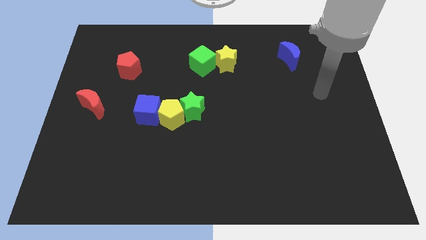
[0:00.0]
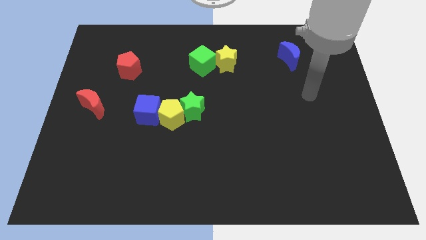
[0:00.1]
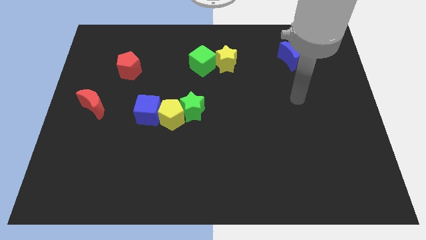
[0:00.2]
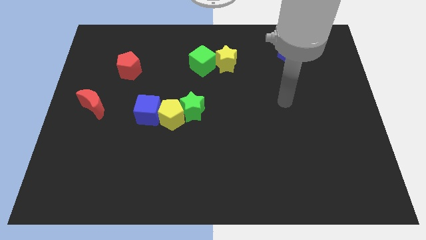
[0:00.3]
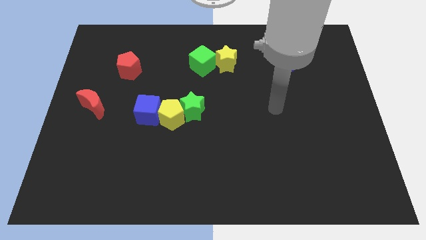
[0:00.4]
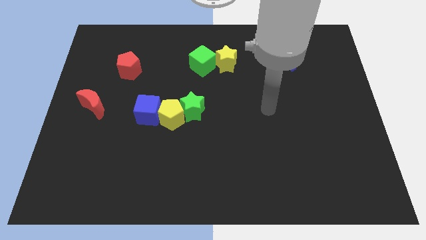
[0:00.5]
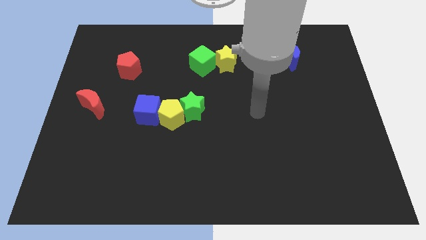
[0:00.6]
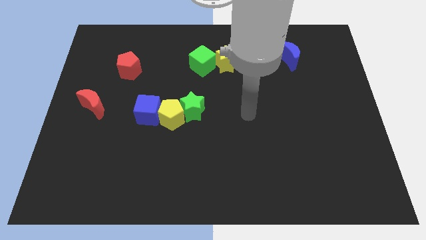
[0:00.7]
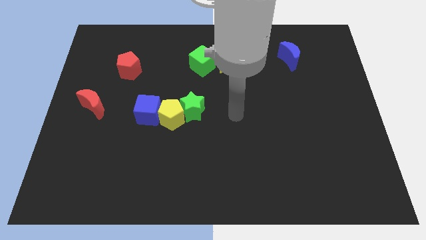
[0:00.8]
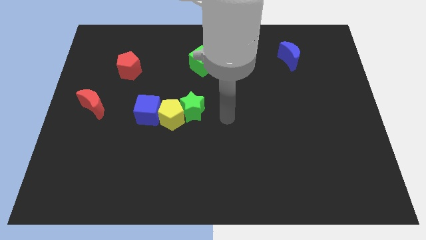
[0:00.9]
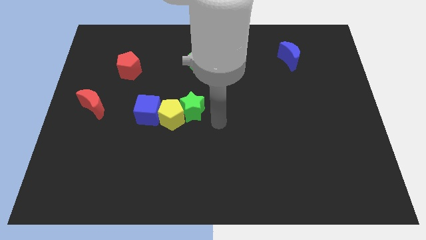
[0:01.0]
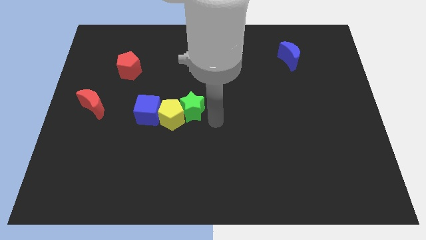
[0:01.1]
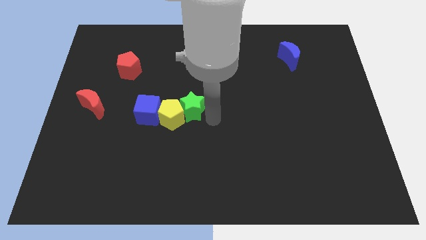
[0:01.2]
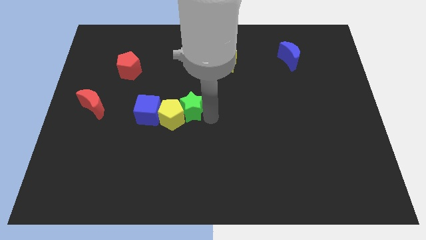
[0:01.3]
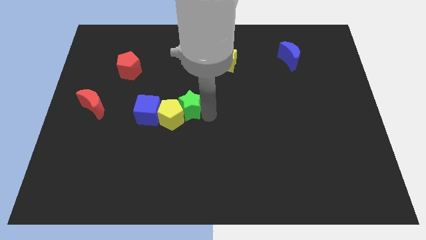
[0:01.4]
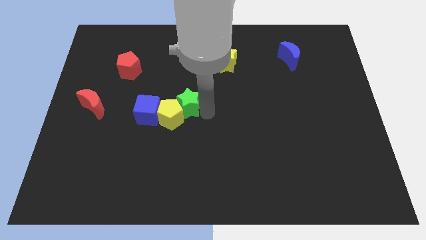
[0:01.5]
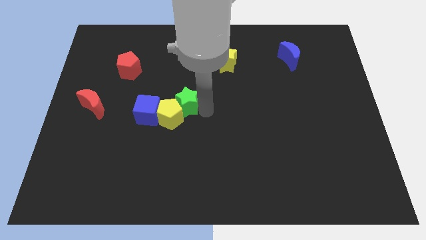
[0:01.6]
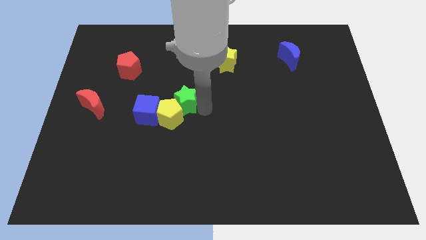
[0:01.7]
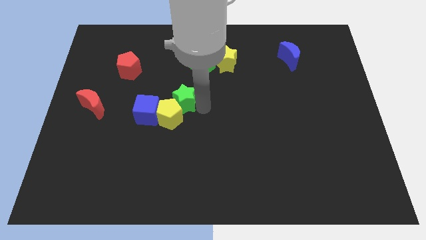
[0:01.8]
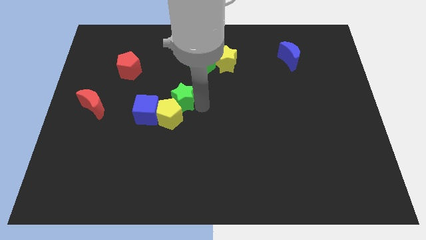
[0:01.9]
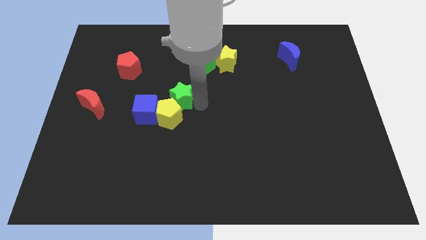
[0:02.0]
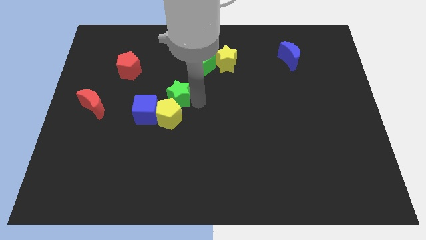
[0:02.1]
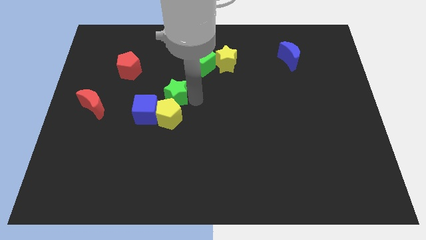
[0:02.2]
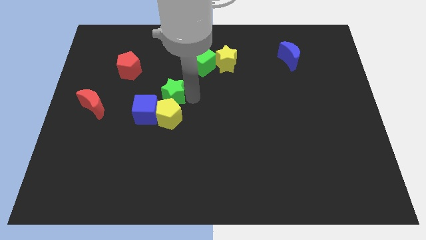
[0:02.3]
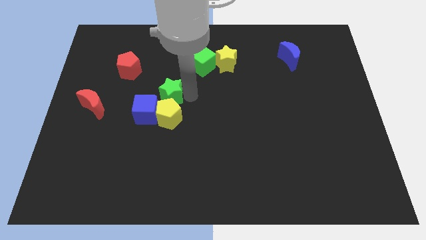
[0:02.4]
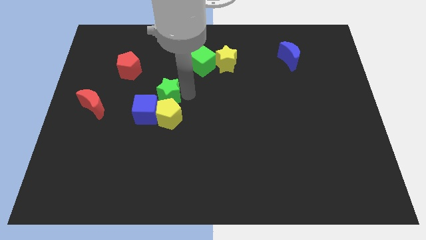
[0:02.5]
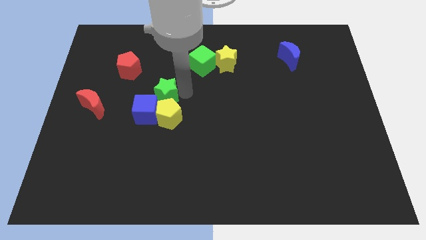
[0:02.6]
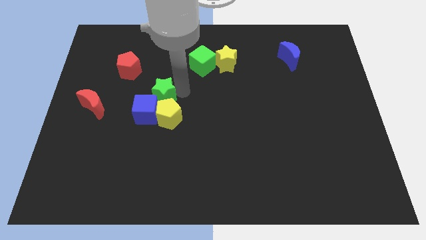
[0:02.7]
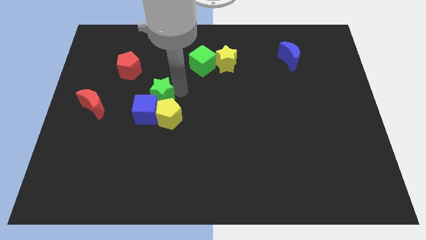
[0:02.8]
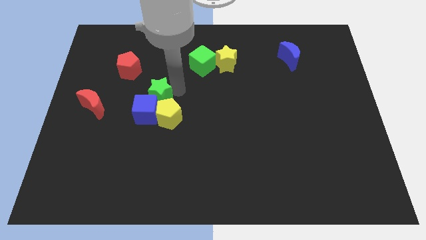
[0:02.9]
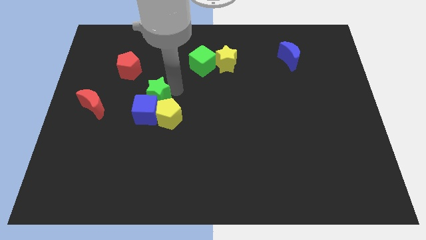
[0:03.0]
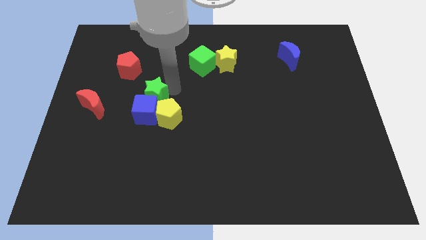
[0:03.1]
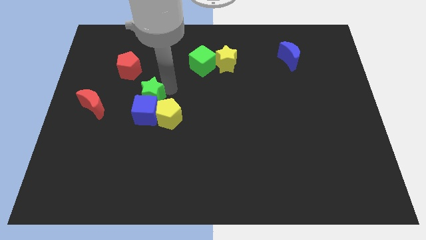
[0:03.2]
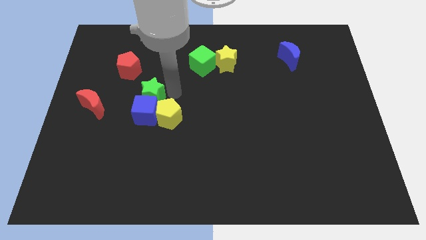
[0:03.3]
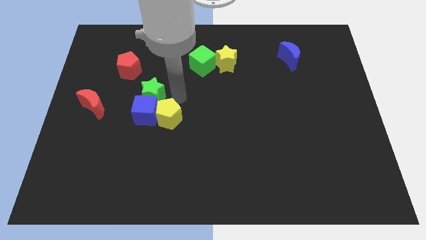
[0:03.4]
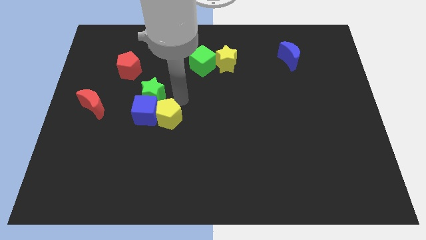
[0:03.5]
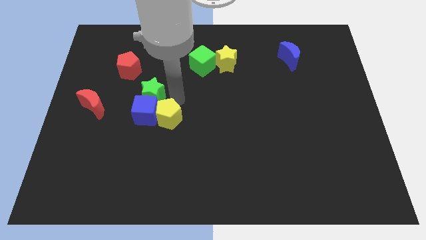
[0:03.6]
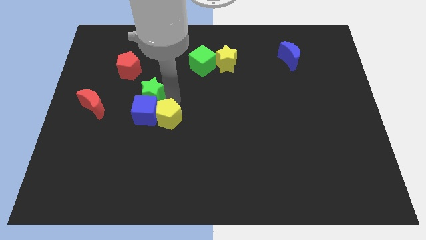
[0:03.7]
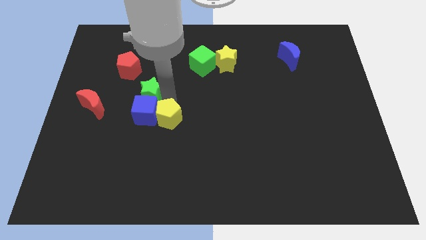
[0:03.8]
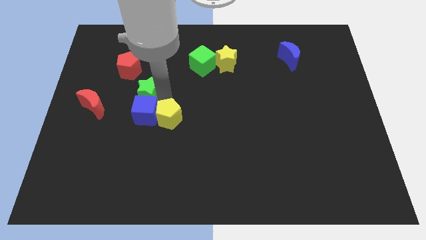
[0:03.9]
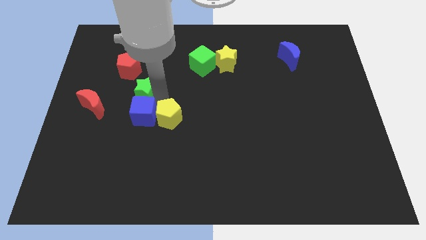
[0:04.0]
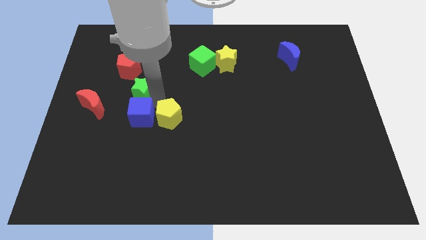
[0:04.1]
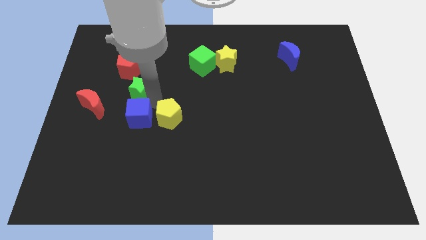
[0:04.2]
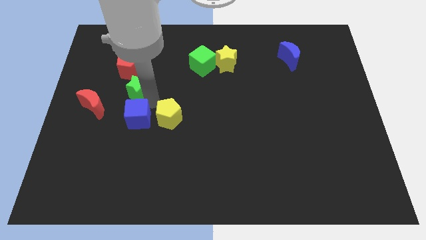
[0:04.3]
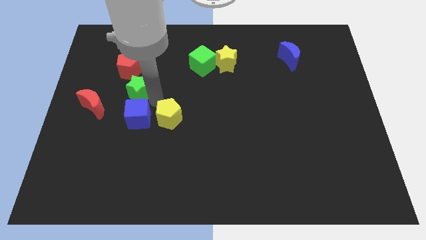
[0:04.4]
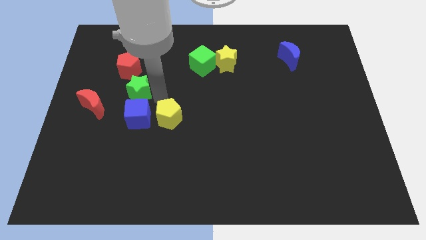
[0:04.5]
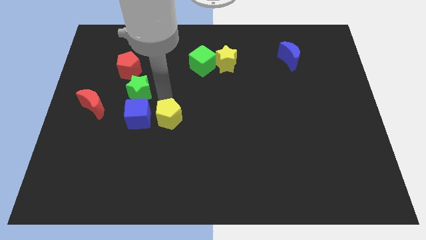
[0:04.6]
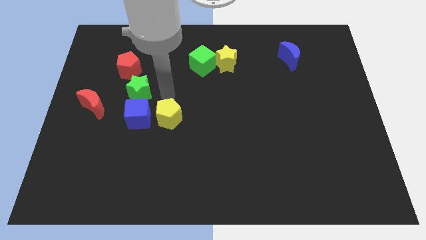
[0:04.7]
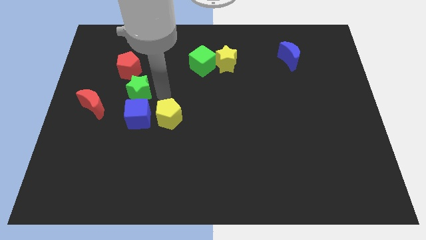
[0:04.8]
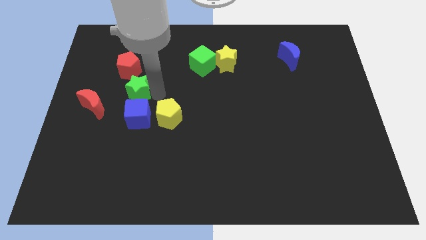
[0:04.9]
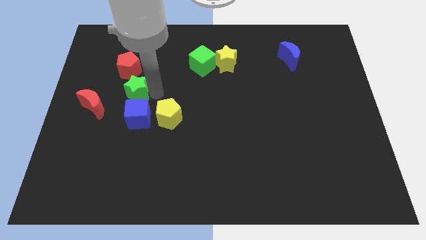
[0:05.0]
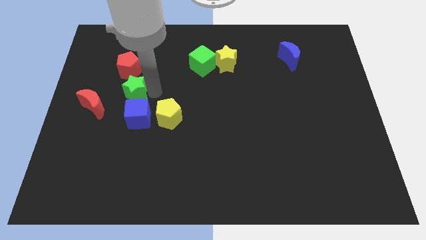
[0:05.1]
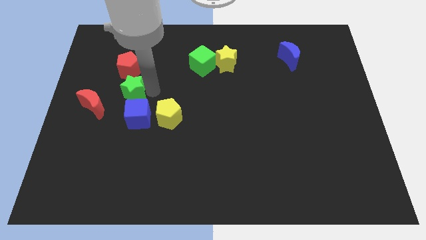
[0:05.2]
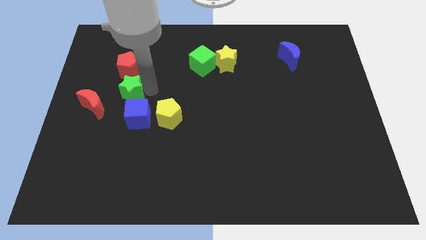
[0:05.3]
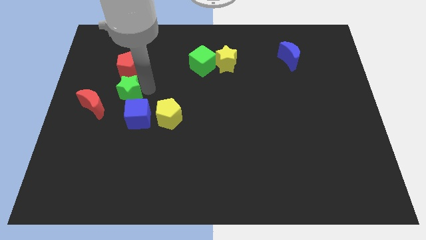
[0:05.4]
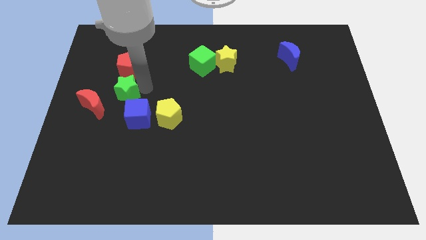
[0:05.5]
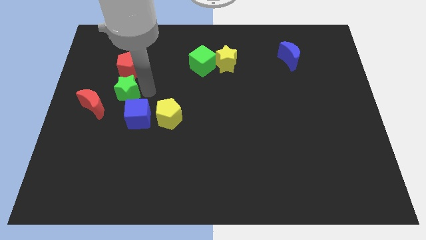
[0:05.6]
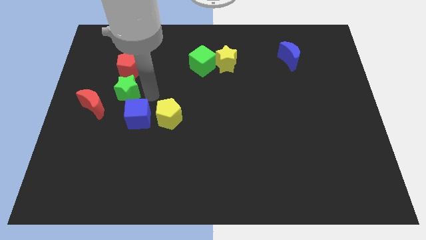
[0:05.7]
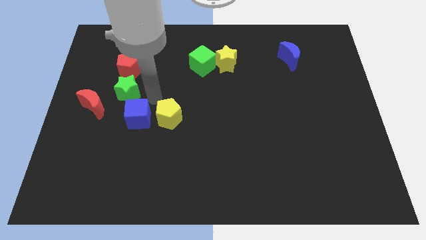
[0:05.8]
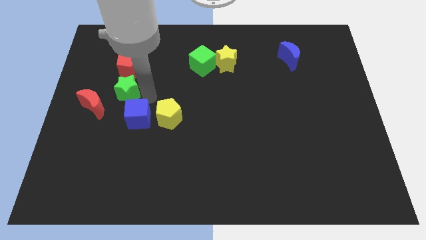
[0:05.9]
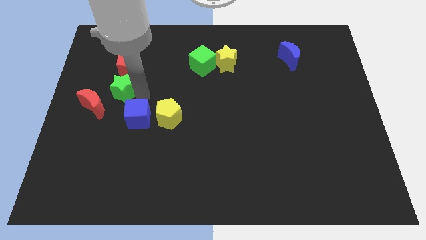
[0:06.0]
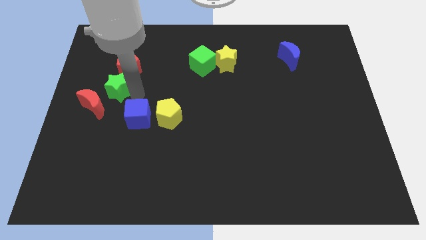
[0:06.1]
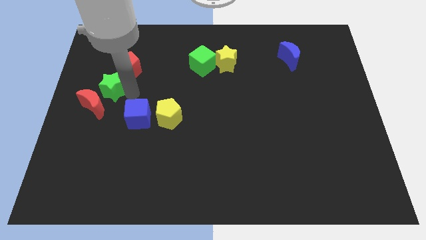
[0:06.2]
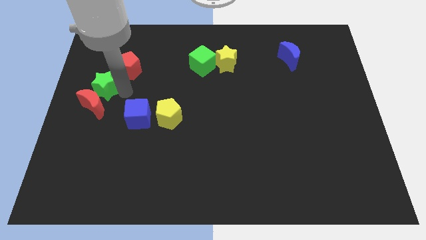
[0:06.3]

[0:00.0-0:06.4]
move the green star to the center left
